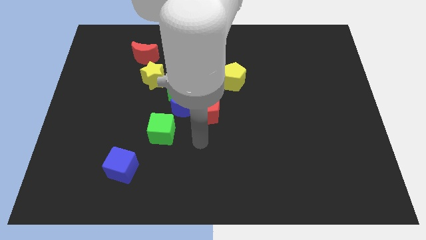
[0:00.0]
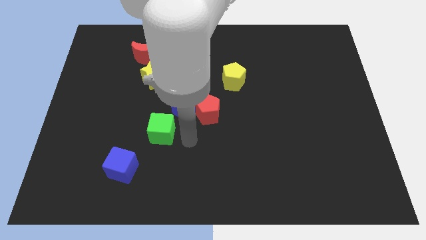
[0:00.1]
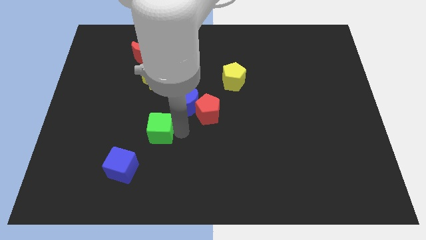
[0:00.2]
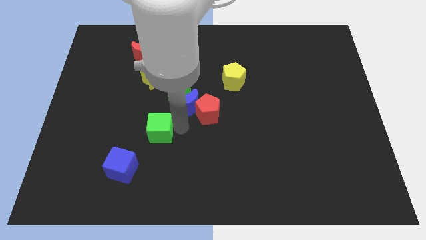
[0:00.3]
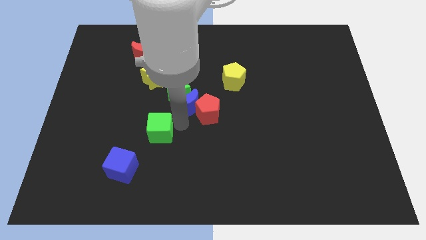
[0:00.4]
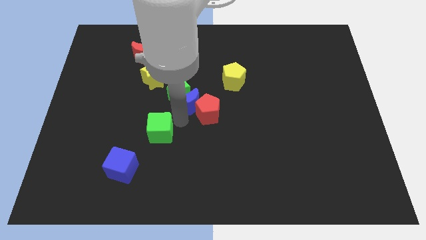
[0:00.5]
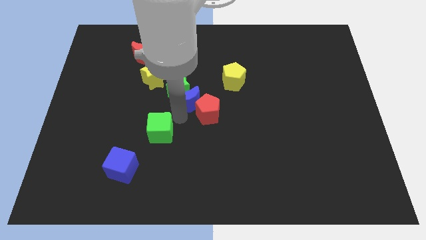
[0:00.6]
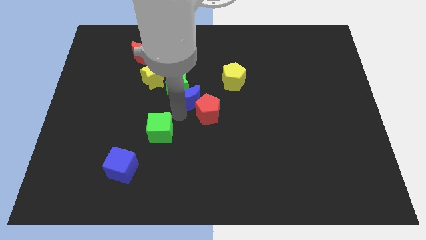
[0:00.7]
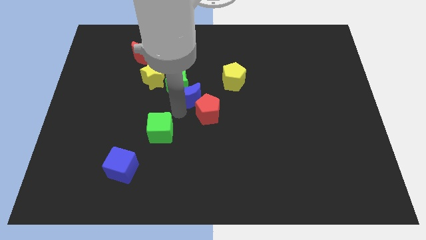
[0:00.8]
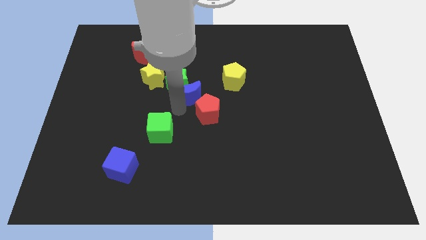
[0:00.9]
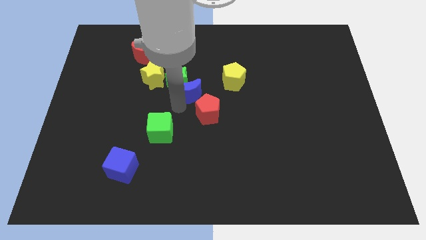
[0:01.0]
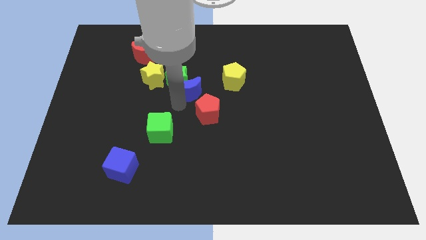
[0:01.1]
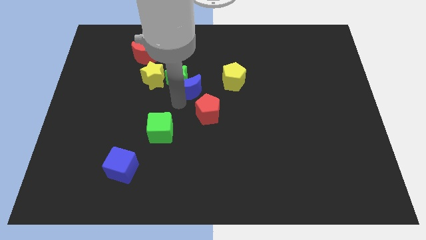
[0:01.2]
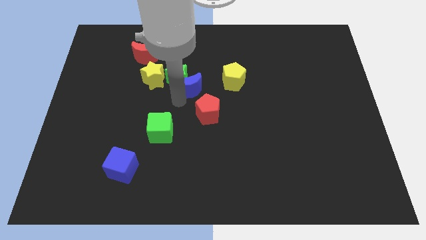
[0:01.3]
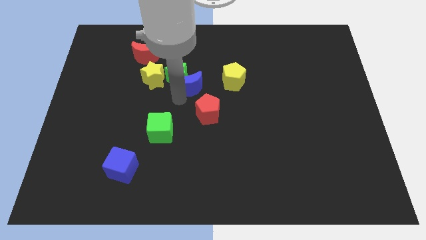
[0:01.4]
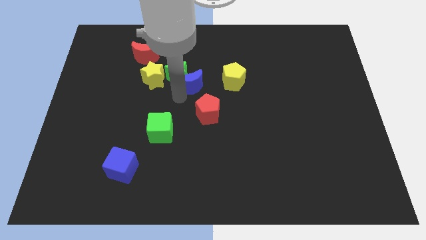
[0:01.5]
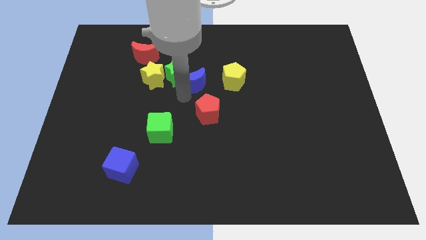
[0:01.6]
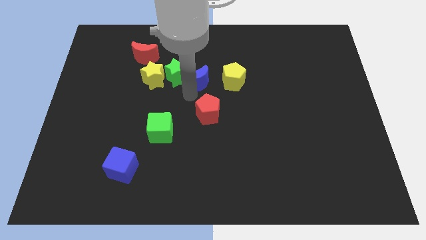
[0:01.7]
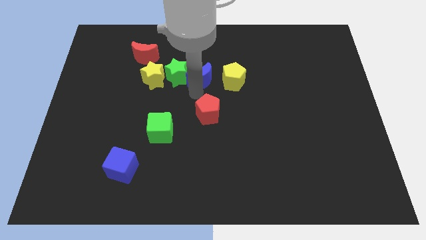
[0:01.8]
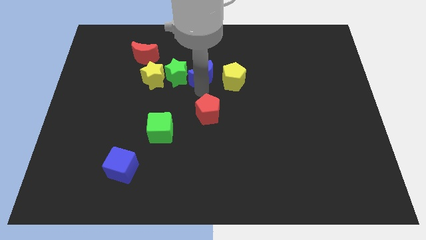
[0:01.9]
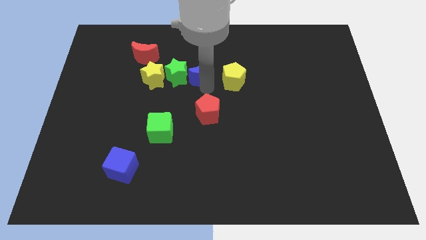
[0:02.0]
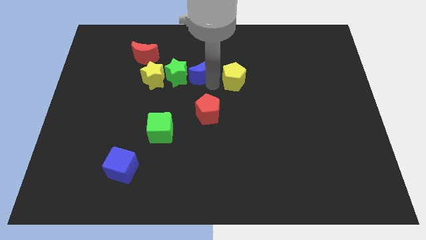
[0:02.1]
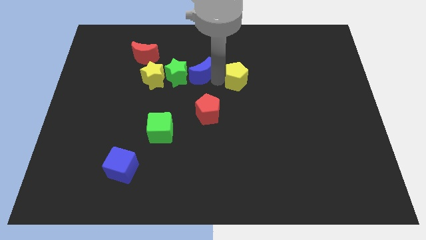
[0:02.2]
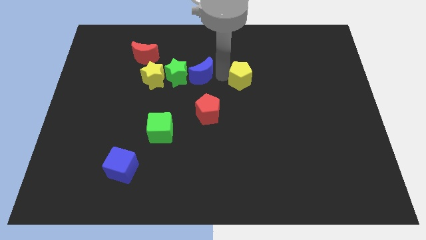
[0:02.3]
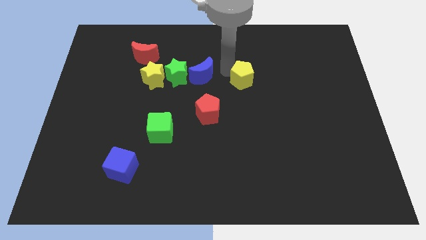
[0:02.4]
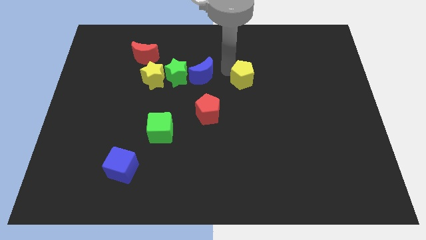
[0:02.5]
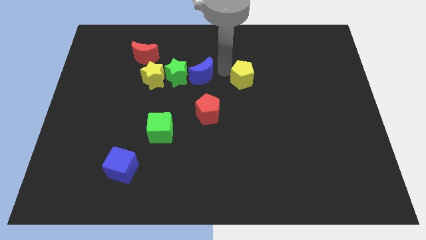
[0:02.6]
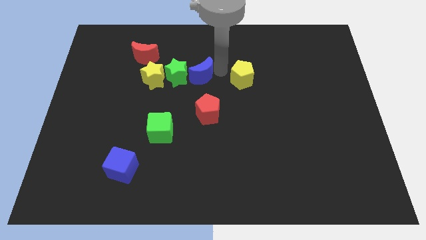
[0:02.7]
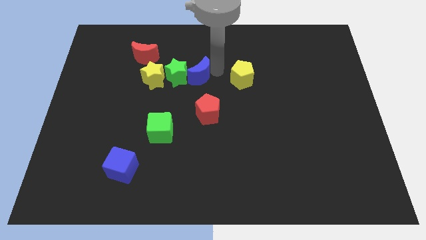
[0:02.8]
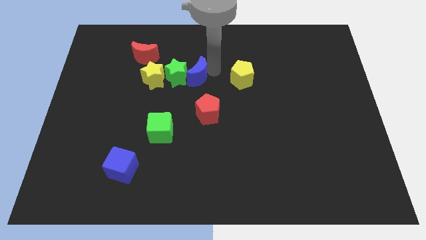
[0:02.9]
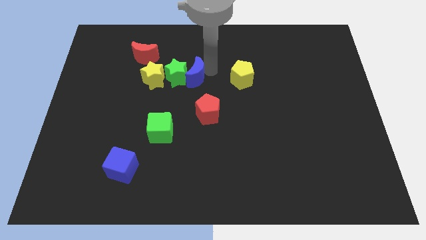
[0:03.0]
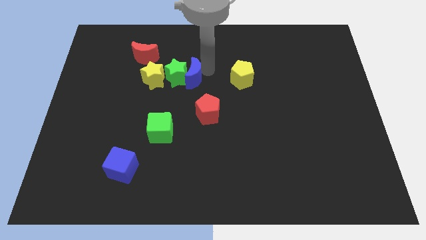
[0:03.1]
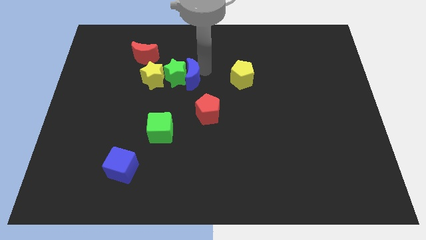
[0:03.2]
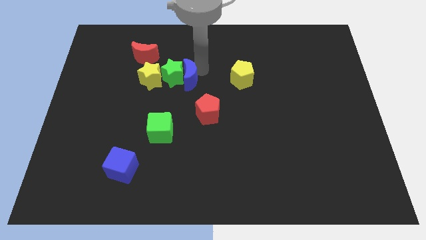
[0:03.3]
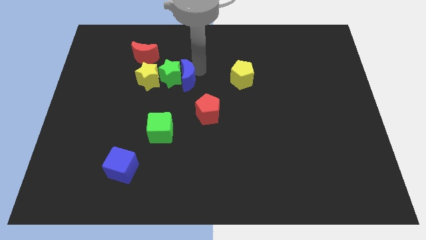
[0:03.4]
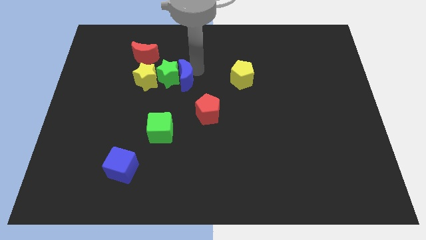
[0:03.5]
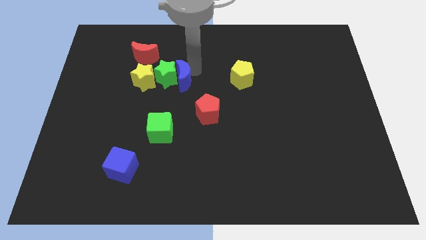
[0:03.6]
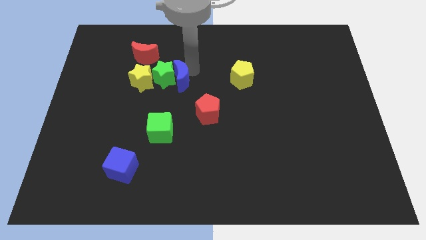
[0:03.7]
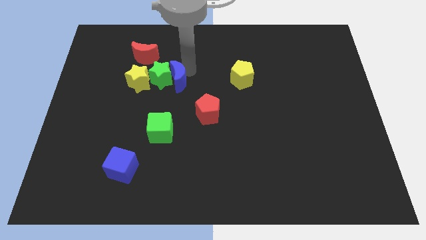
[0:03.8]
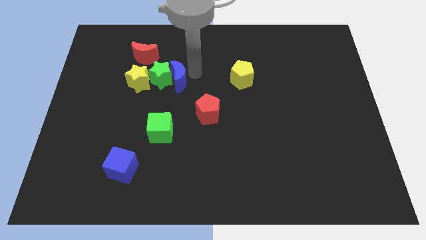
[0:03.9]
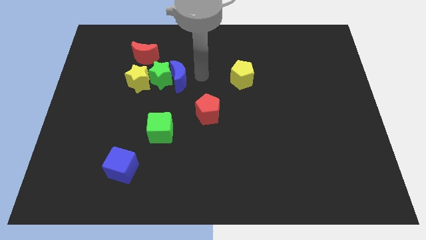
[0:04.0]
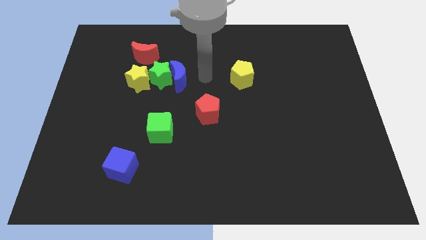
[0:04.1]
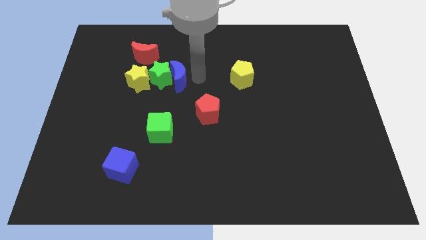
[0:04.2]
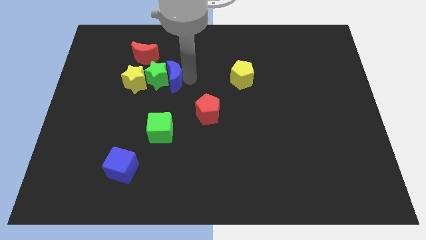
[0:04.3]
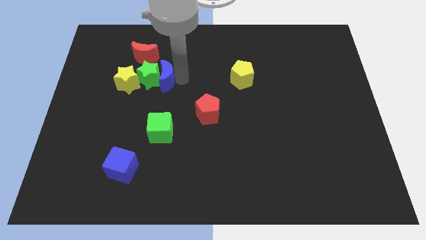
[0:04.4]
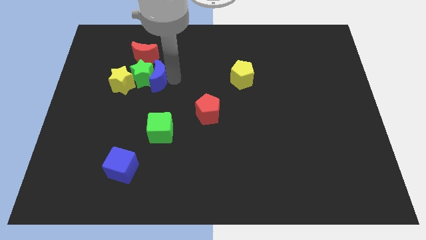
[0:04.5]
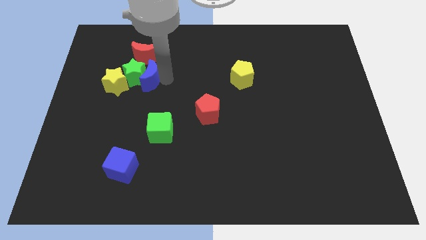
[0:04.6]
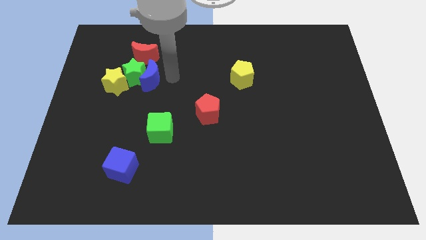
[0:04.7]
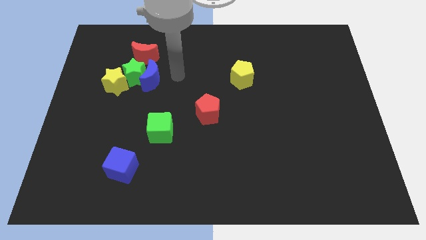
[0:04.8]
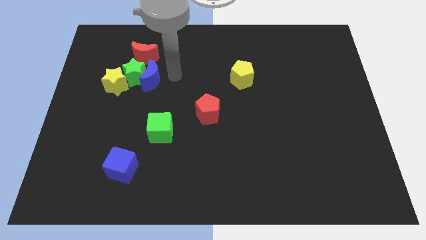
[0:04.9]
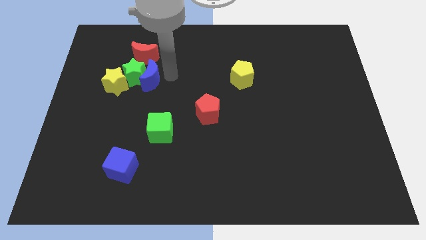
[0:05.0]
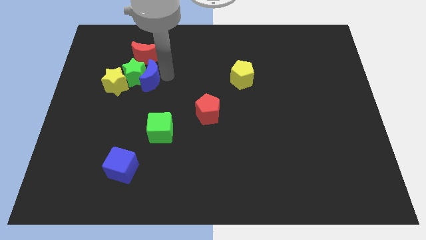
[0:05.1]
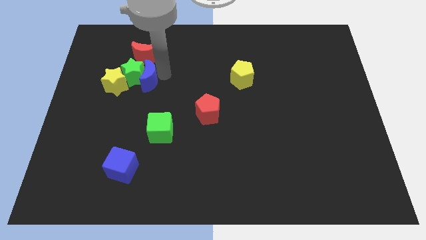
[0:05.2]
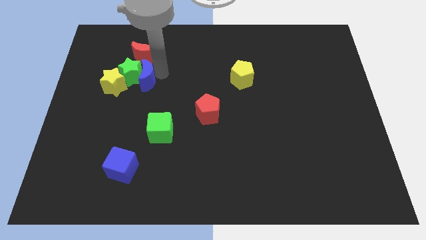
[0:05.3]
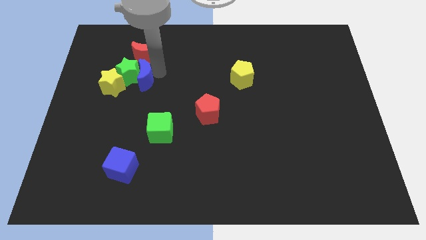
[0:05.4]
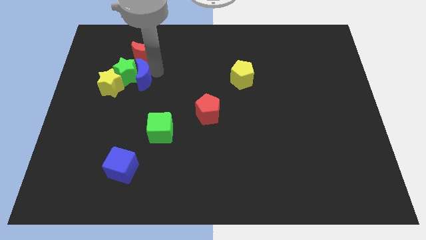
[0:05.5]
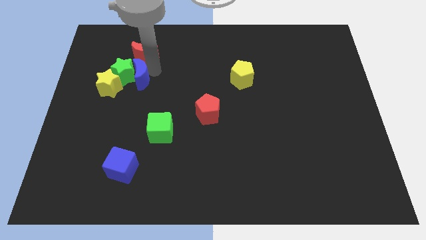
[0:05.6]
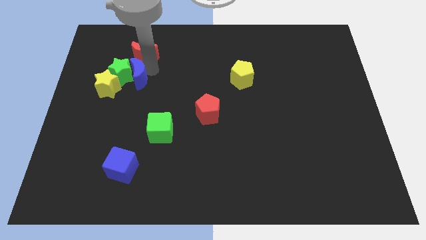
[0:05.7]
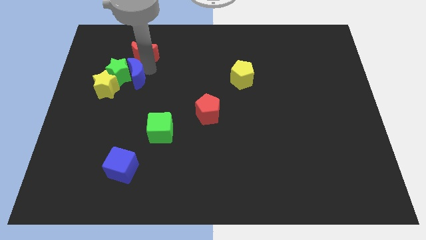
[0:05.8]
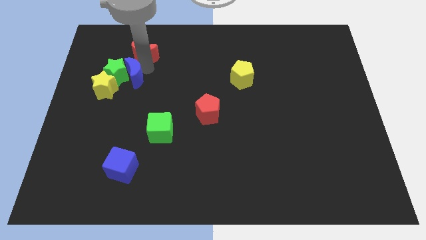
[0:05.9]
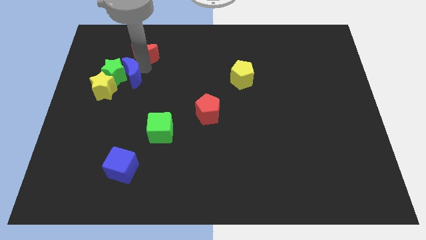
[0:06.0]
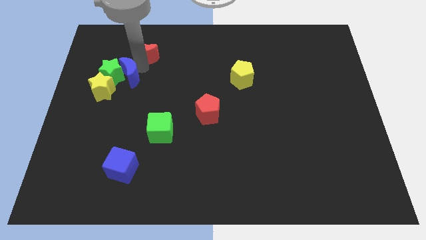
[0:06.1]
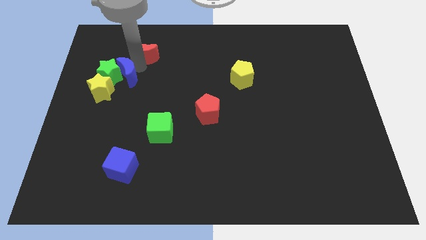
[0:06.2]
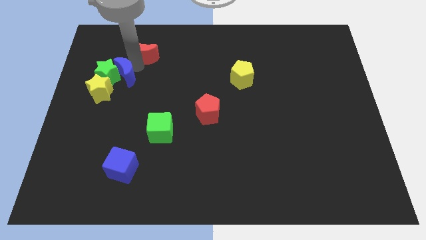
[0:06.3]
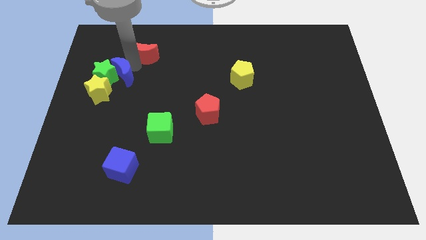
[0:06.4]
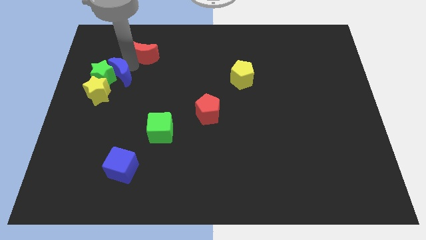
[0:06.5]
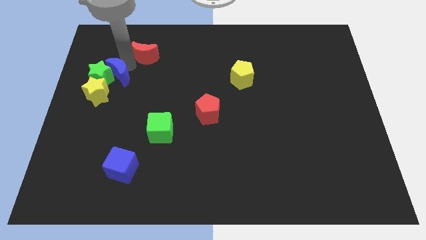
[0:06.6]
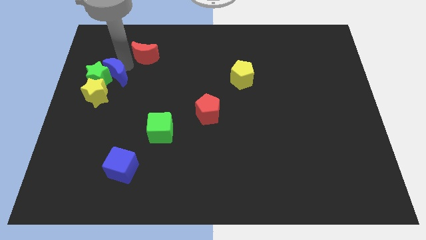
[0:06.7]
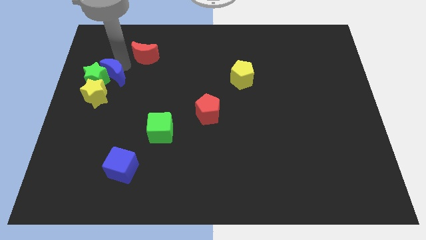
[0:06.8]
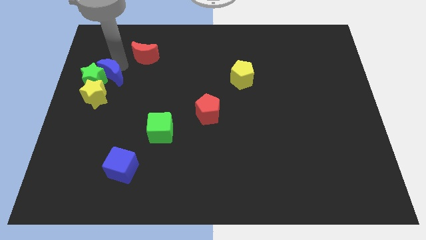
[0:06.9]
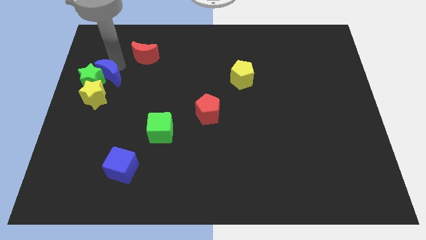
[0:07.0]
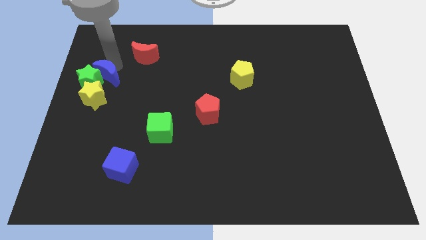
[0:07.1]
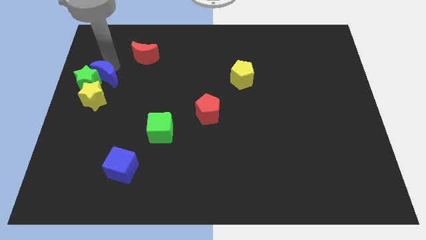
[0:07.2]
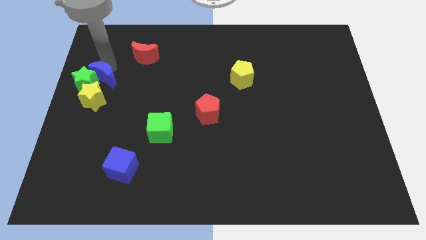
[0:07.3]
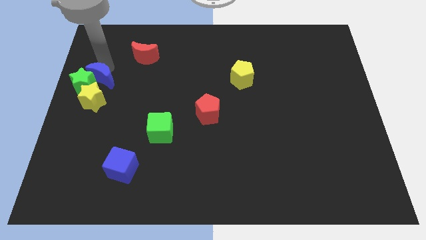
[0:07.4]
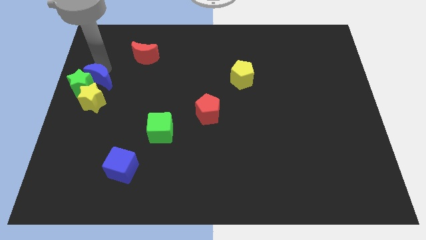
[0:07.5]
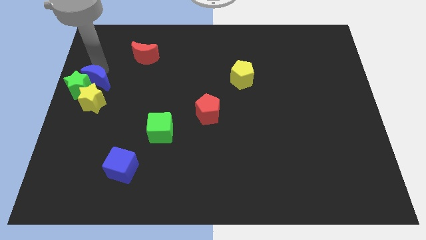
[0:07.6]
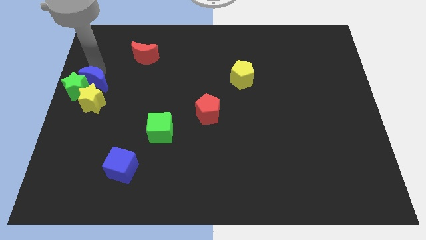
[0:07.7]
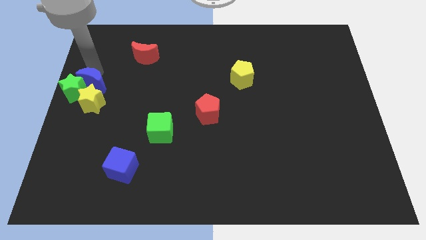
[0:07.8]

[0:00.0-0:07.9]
push the blue moon next to the yellow star
